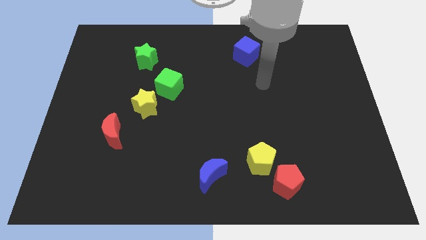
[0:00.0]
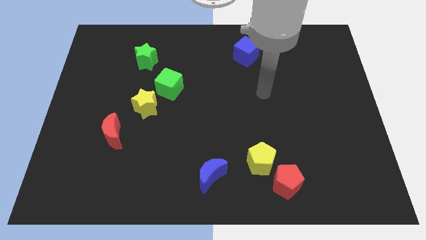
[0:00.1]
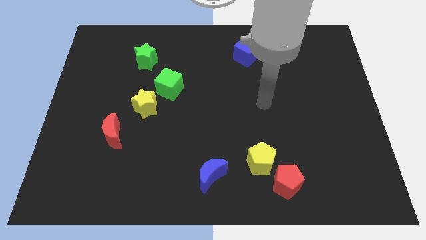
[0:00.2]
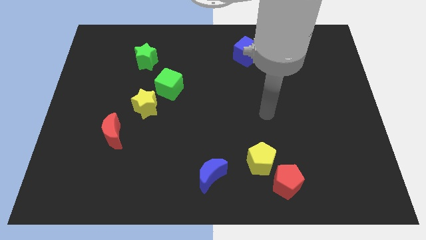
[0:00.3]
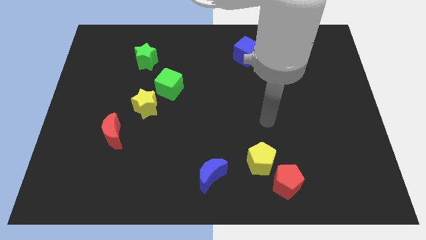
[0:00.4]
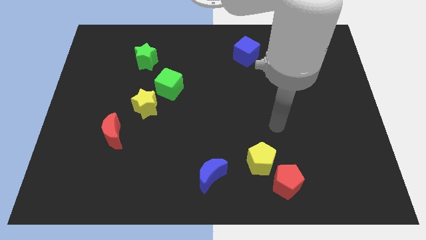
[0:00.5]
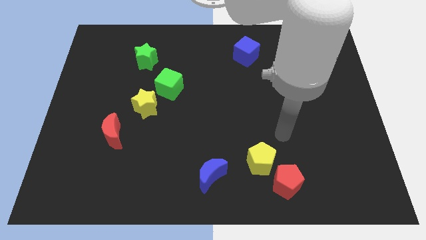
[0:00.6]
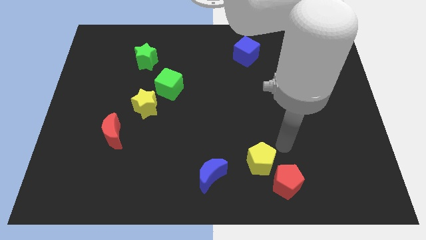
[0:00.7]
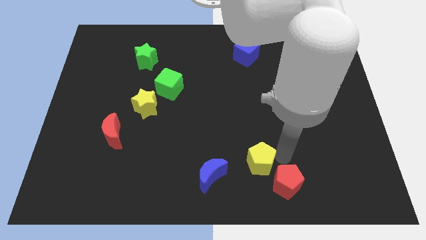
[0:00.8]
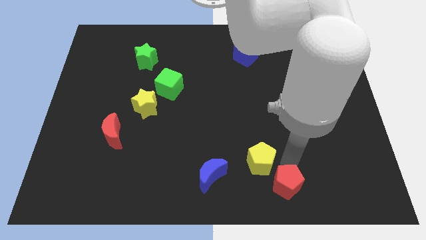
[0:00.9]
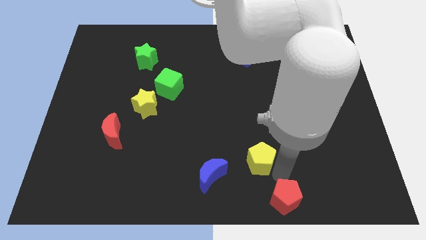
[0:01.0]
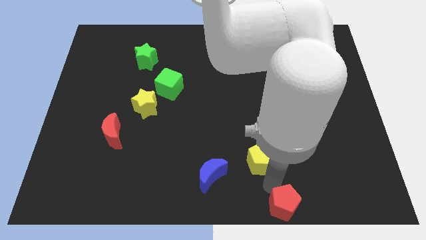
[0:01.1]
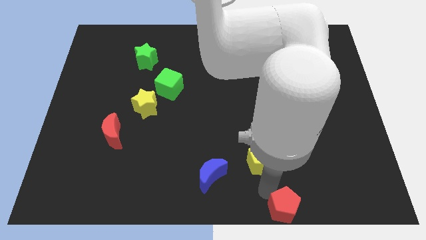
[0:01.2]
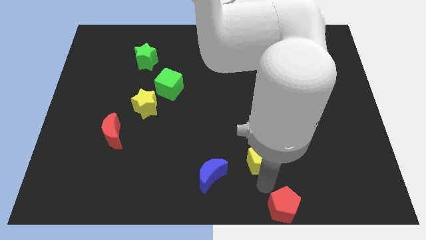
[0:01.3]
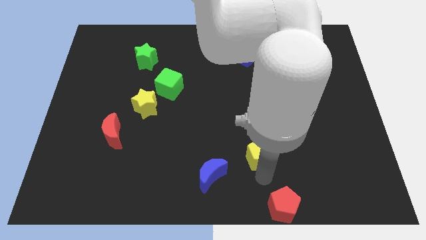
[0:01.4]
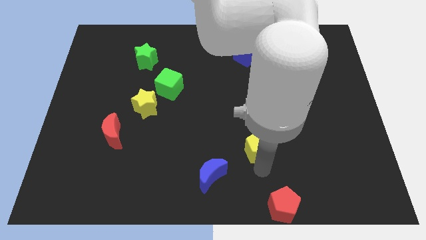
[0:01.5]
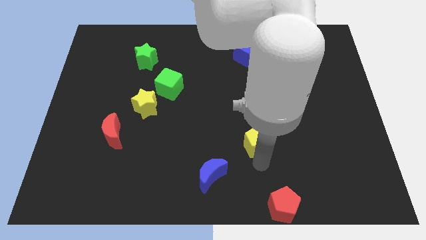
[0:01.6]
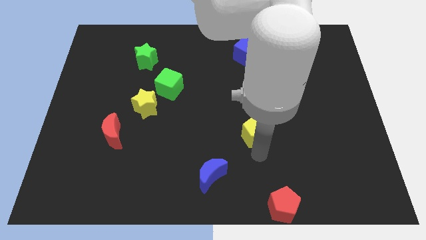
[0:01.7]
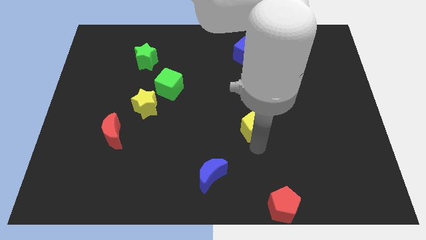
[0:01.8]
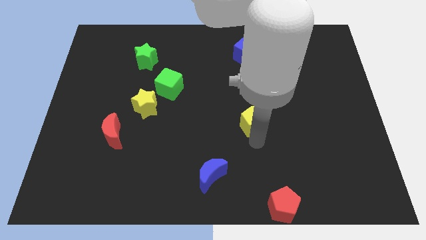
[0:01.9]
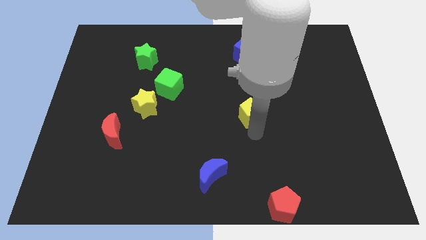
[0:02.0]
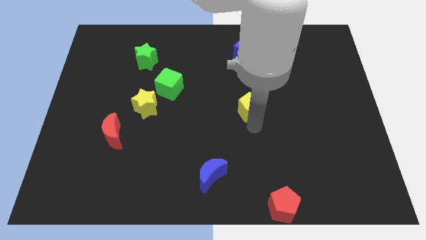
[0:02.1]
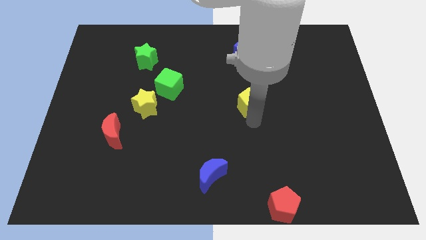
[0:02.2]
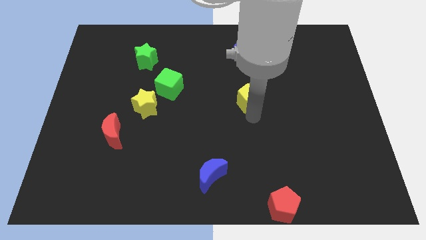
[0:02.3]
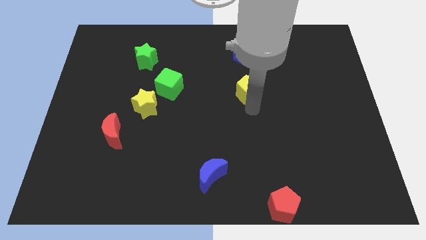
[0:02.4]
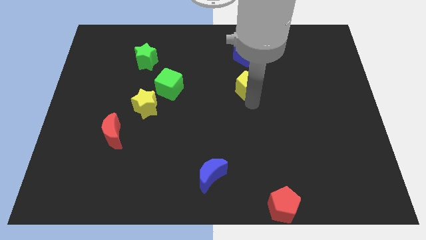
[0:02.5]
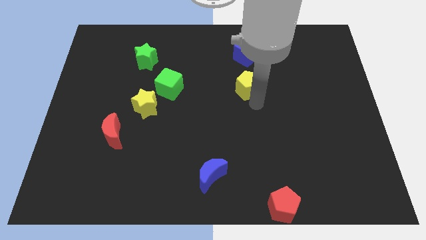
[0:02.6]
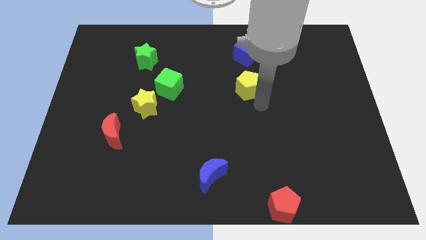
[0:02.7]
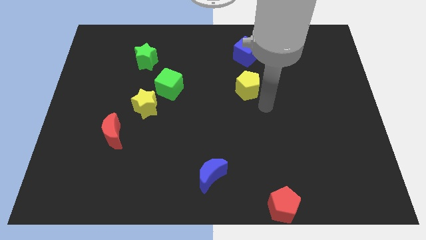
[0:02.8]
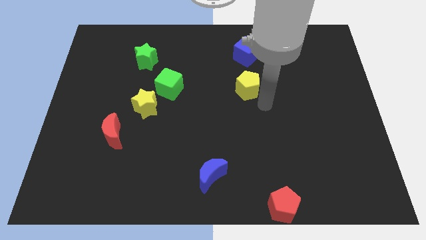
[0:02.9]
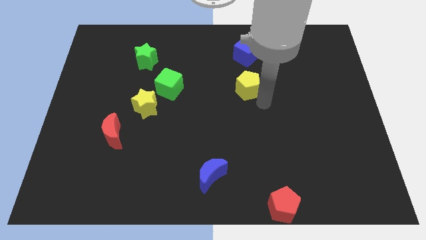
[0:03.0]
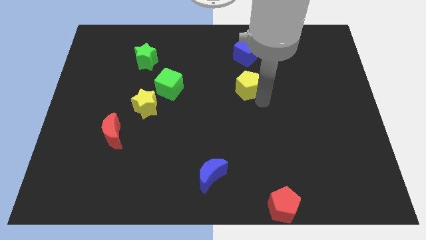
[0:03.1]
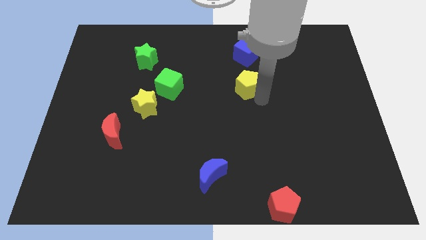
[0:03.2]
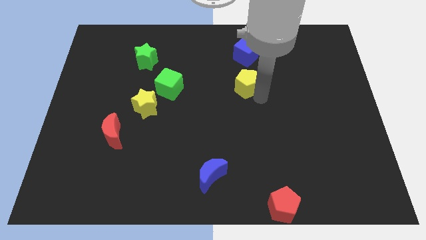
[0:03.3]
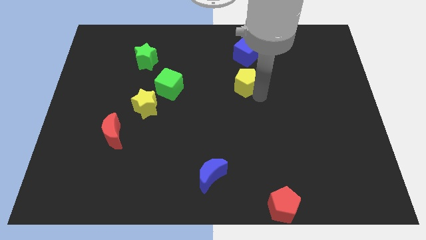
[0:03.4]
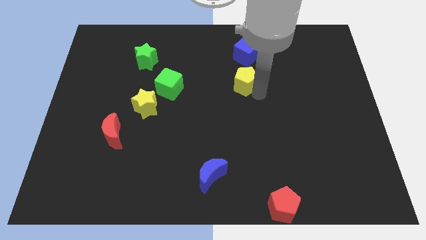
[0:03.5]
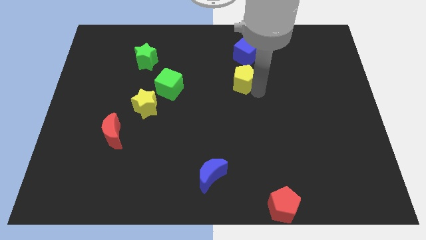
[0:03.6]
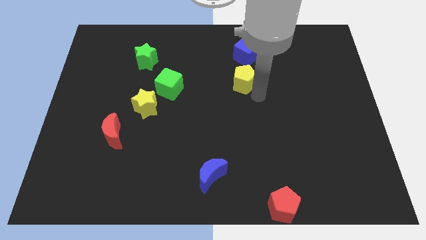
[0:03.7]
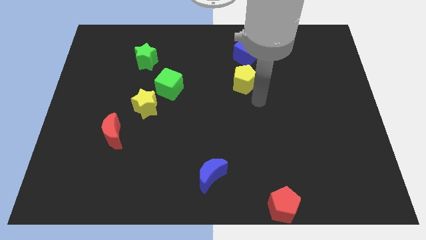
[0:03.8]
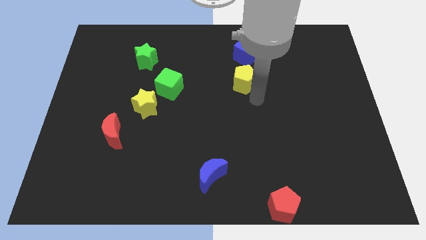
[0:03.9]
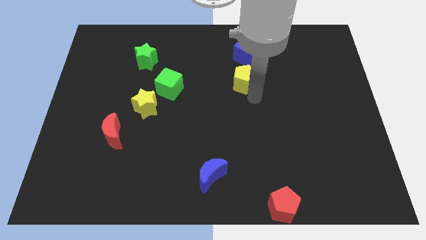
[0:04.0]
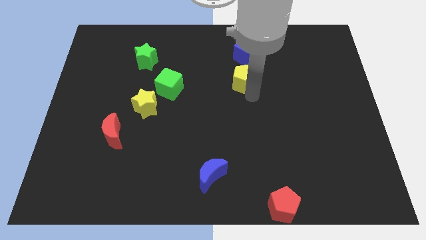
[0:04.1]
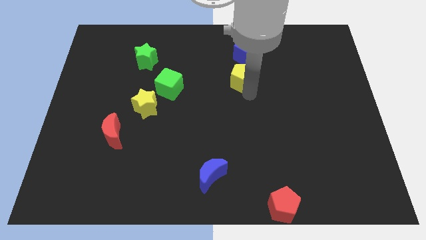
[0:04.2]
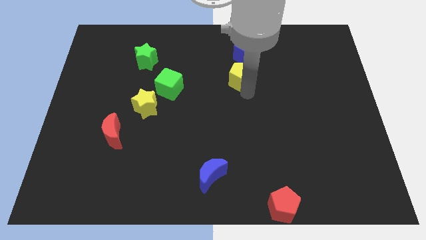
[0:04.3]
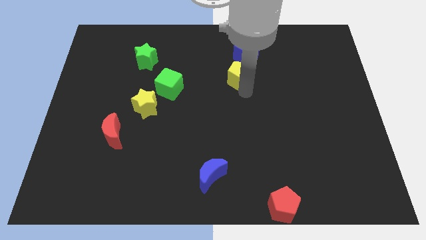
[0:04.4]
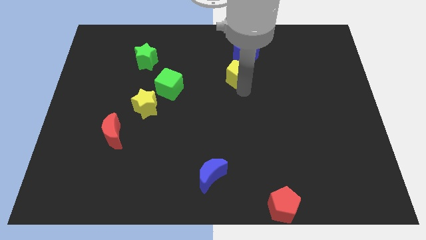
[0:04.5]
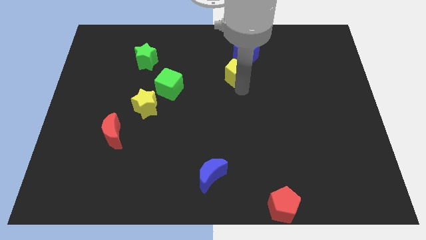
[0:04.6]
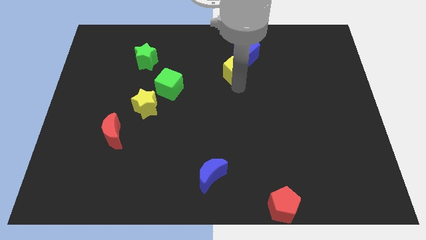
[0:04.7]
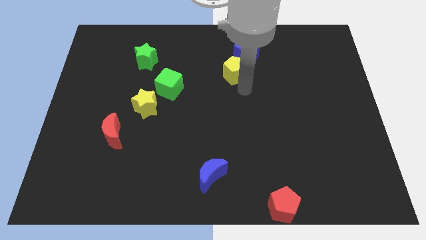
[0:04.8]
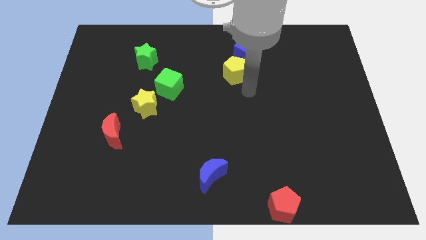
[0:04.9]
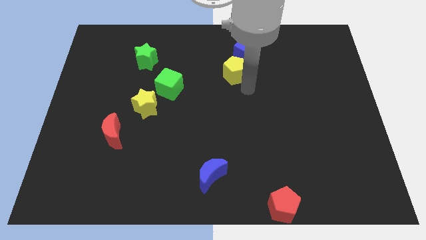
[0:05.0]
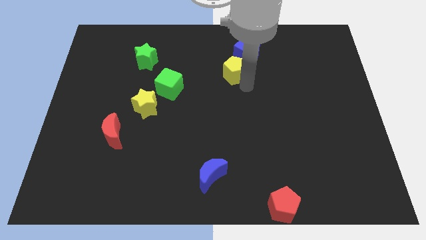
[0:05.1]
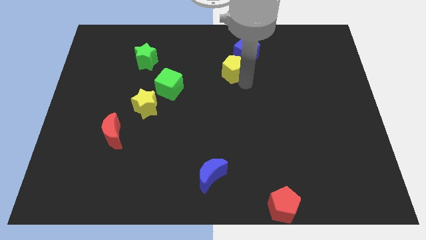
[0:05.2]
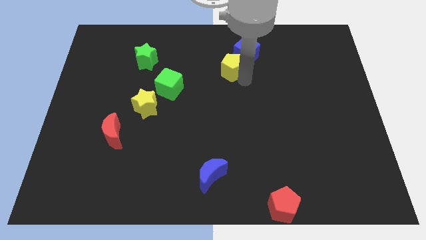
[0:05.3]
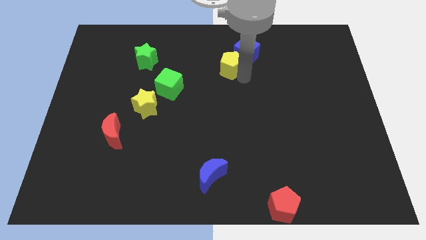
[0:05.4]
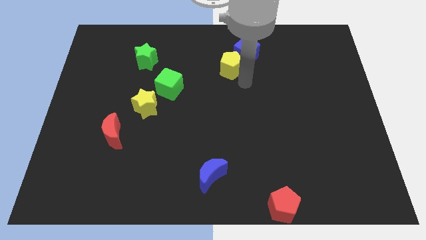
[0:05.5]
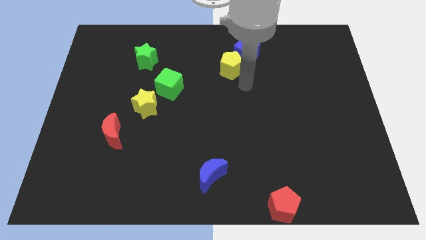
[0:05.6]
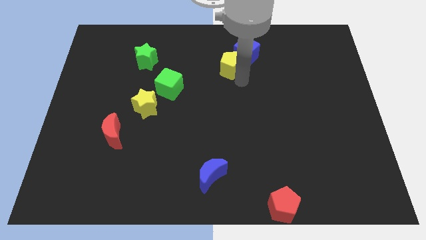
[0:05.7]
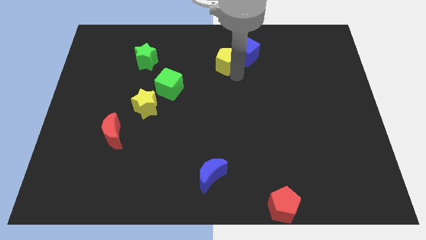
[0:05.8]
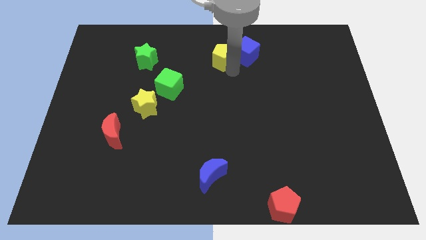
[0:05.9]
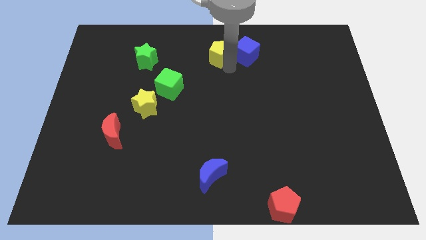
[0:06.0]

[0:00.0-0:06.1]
push the yellow pentagon to the top

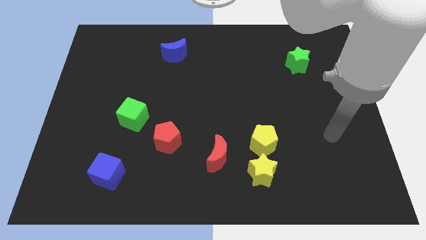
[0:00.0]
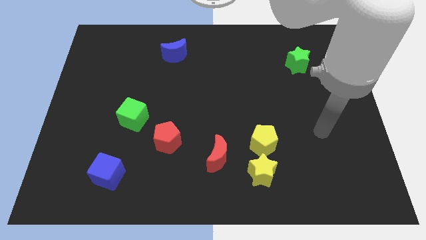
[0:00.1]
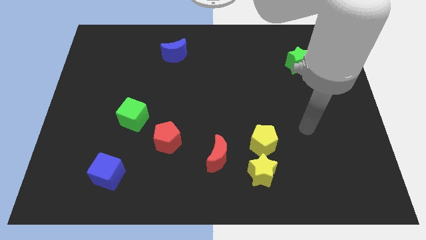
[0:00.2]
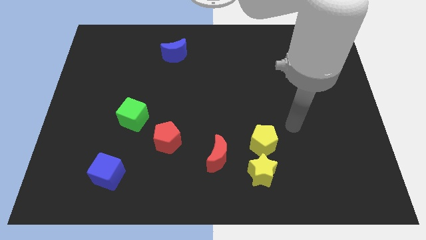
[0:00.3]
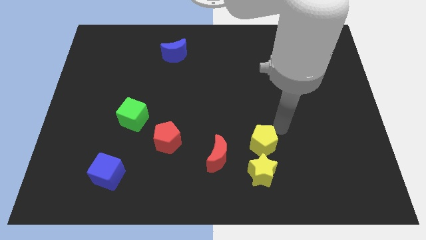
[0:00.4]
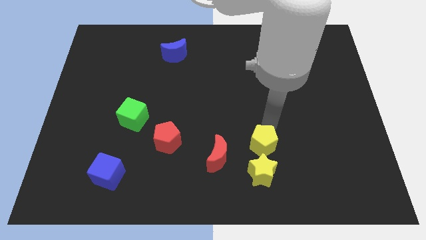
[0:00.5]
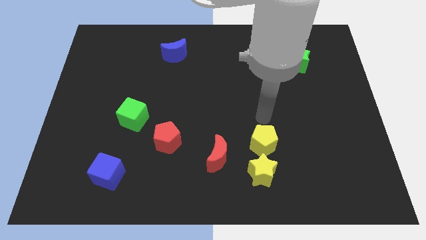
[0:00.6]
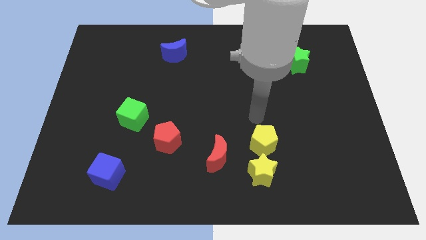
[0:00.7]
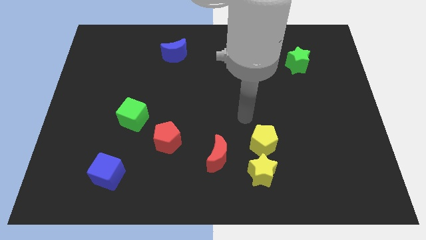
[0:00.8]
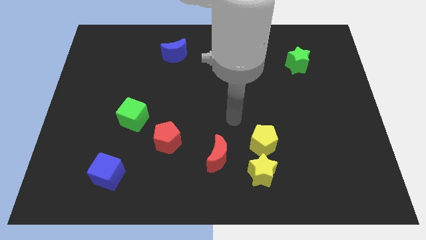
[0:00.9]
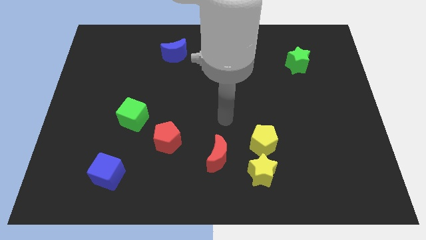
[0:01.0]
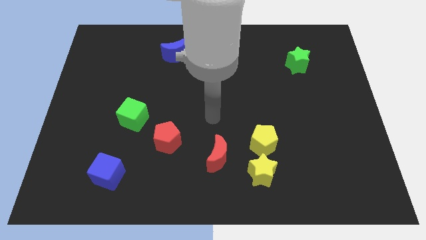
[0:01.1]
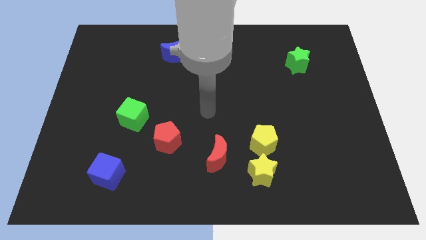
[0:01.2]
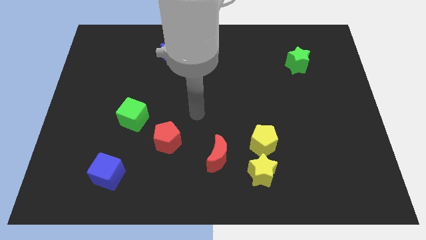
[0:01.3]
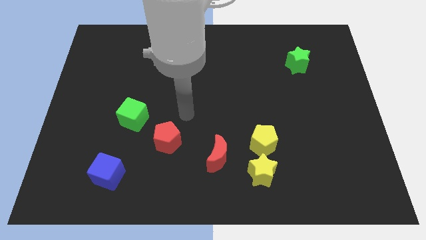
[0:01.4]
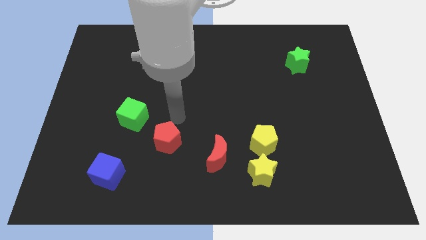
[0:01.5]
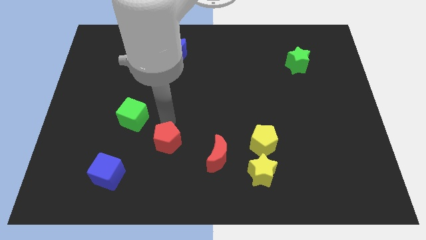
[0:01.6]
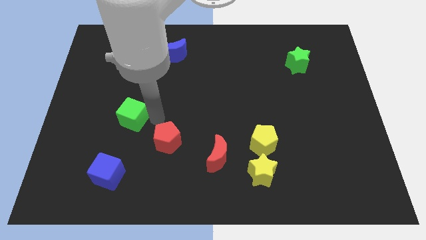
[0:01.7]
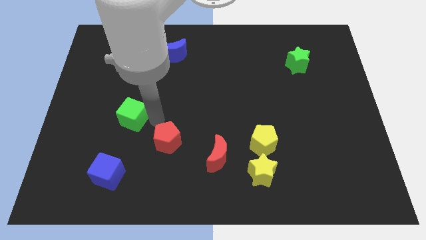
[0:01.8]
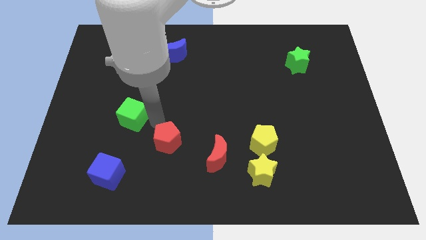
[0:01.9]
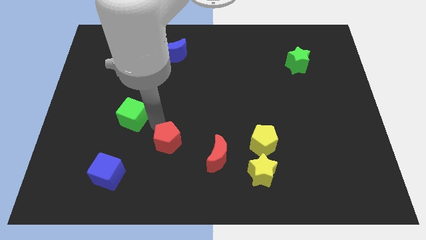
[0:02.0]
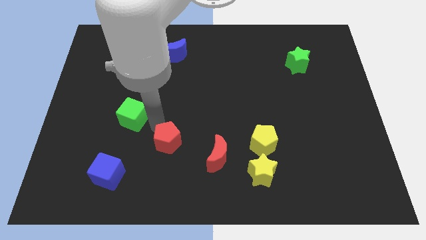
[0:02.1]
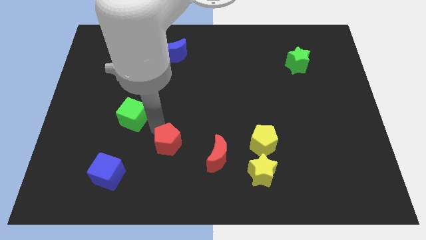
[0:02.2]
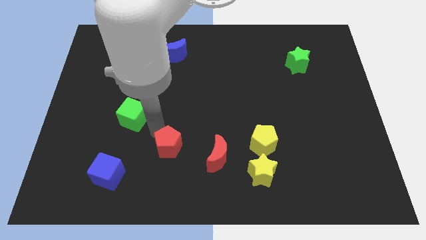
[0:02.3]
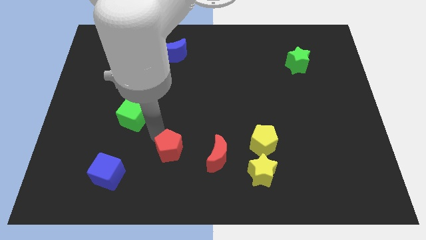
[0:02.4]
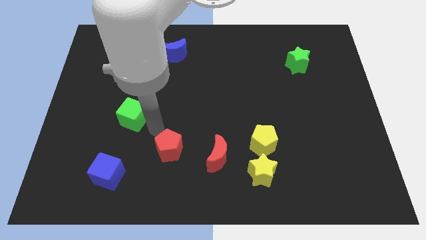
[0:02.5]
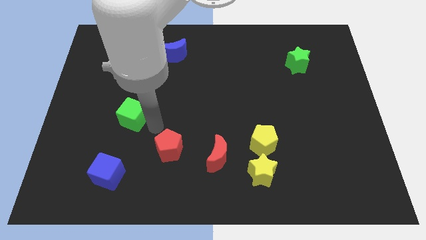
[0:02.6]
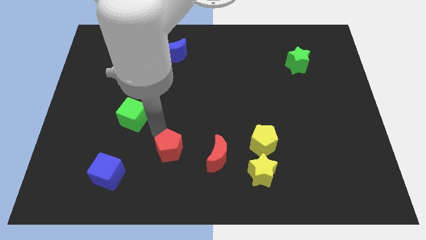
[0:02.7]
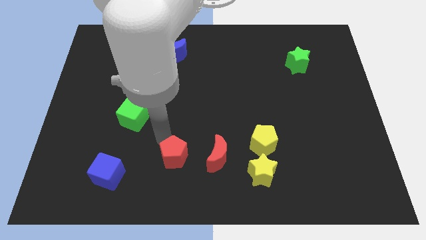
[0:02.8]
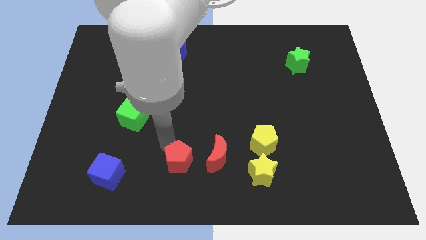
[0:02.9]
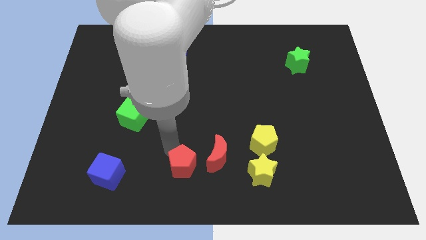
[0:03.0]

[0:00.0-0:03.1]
put the red pentagon to the bottom side
